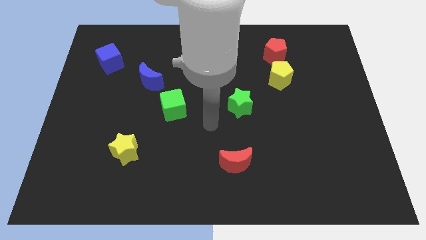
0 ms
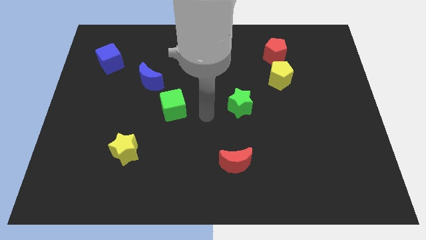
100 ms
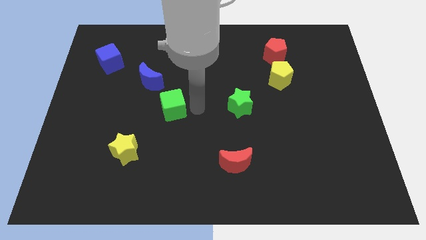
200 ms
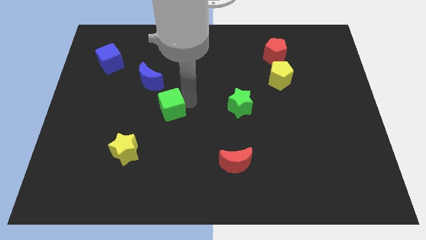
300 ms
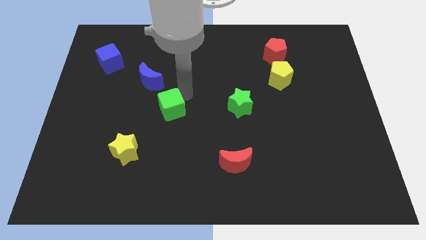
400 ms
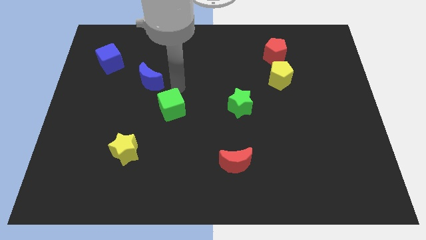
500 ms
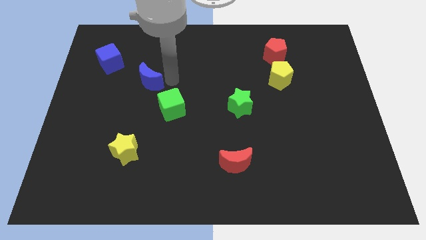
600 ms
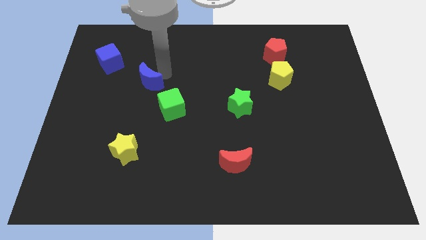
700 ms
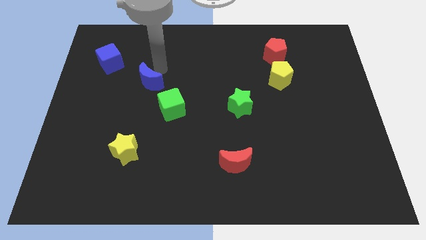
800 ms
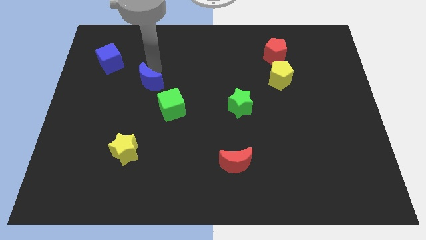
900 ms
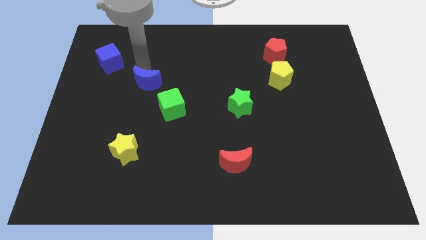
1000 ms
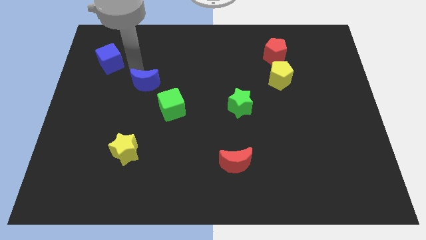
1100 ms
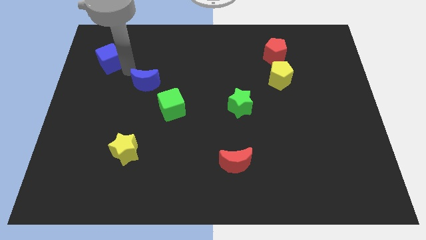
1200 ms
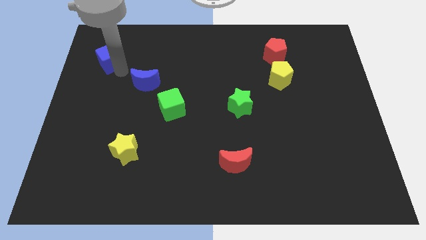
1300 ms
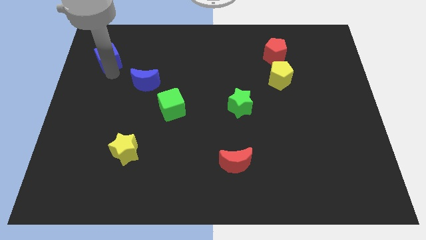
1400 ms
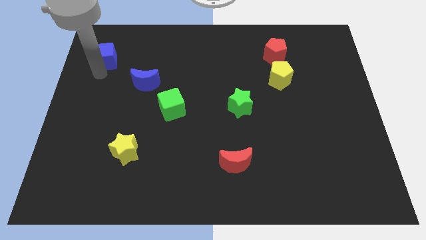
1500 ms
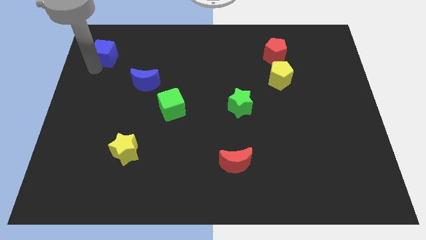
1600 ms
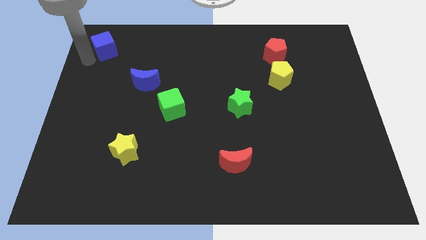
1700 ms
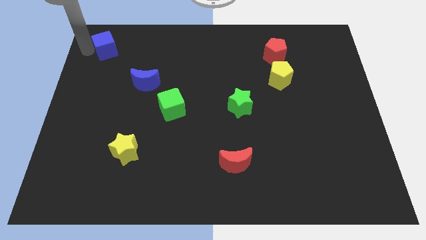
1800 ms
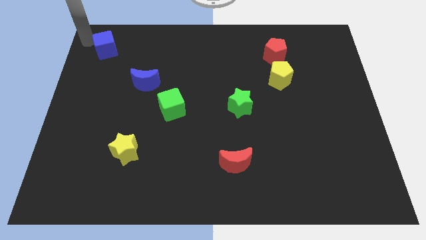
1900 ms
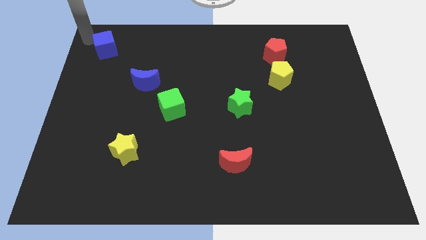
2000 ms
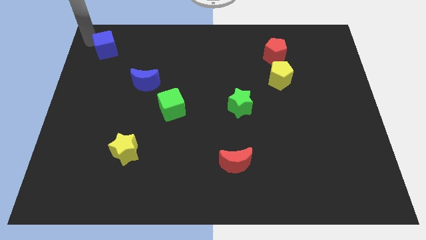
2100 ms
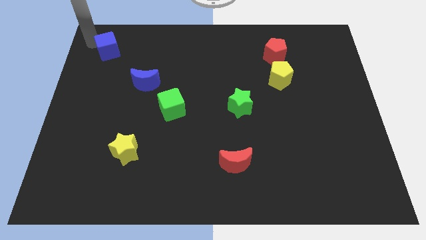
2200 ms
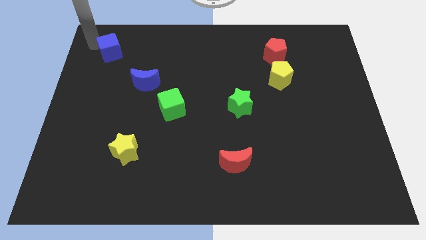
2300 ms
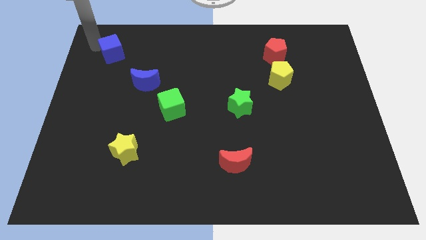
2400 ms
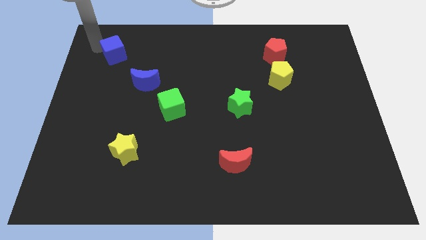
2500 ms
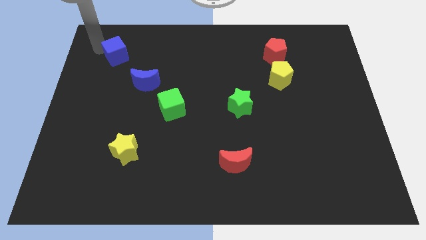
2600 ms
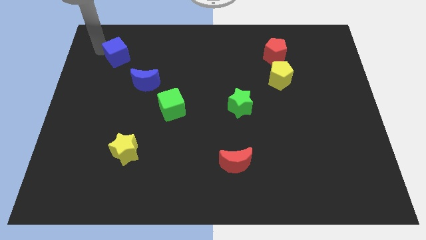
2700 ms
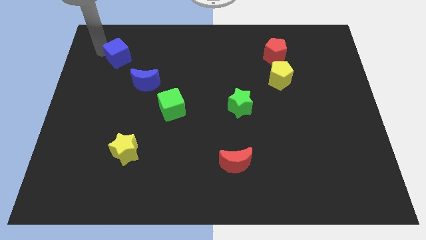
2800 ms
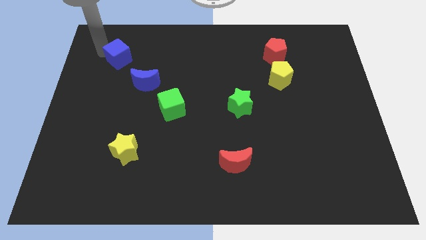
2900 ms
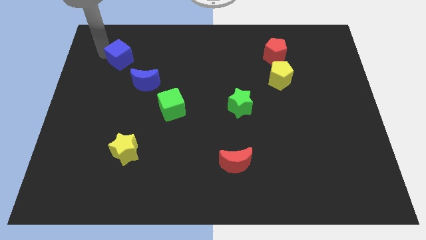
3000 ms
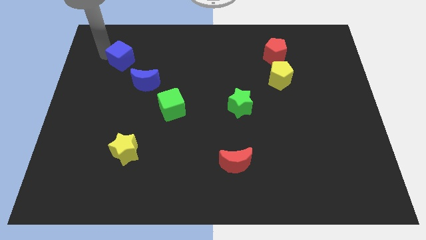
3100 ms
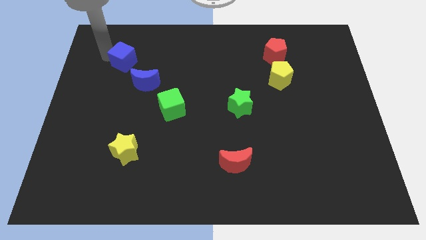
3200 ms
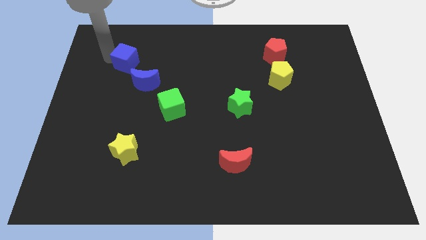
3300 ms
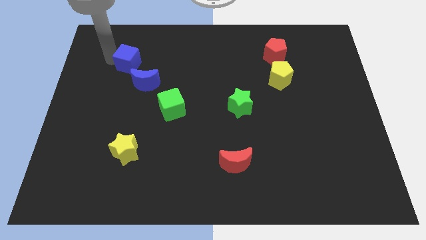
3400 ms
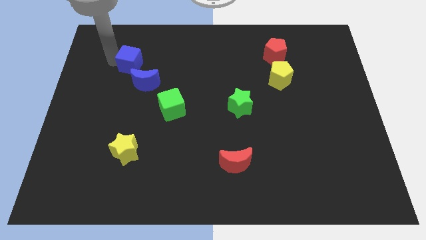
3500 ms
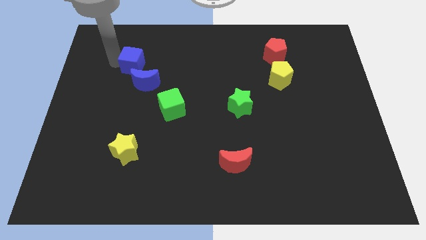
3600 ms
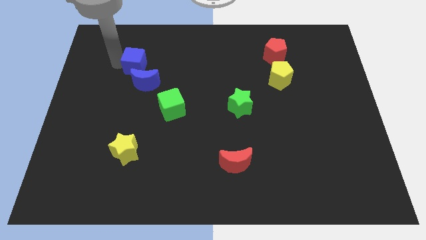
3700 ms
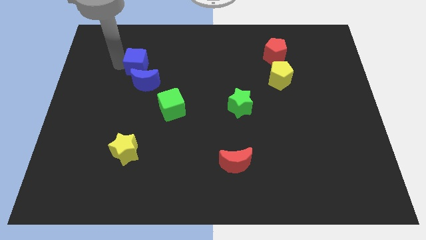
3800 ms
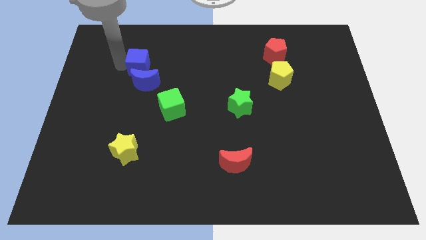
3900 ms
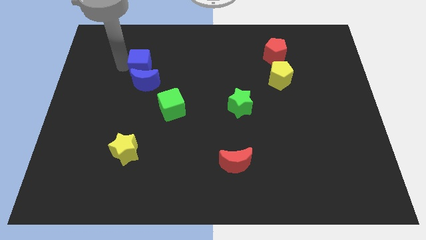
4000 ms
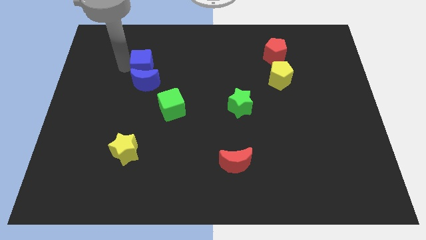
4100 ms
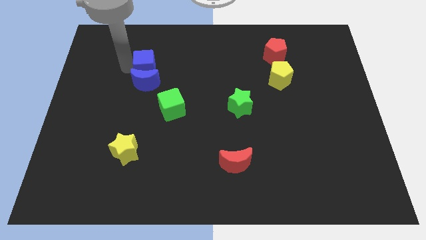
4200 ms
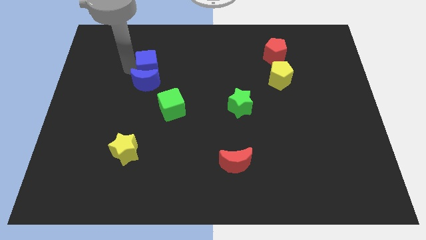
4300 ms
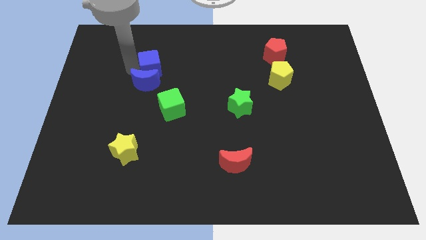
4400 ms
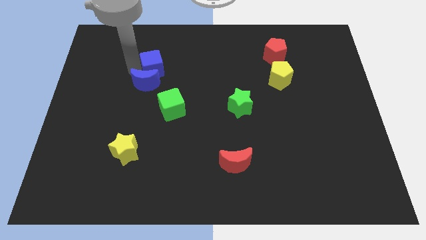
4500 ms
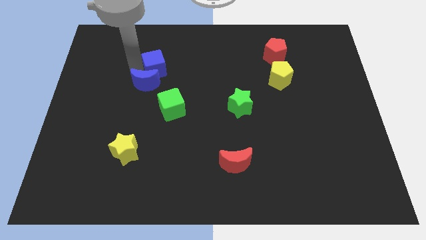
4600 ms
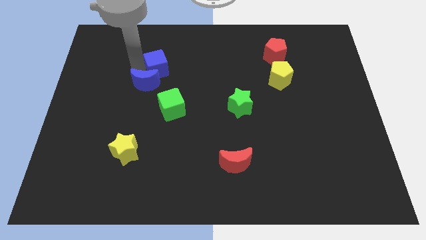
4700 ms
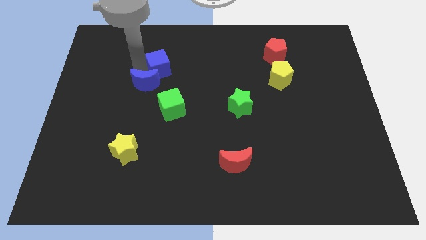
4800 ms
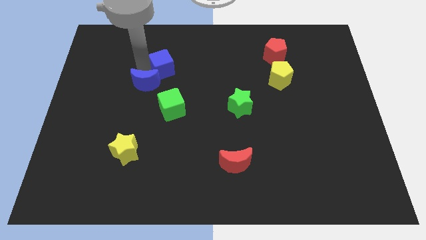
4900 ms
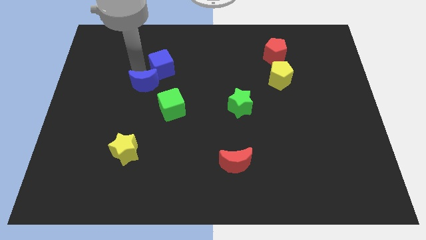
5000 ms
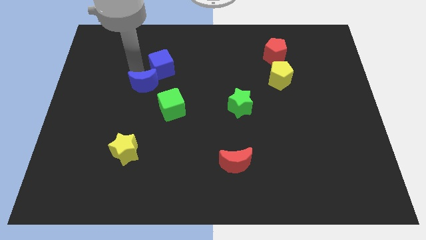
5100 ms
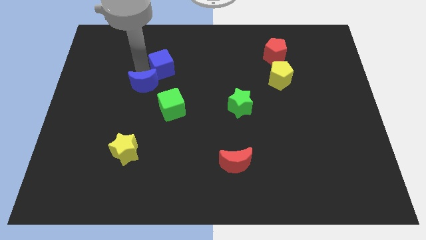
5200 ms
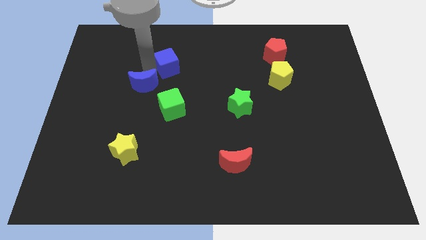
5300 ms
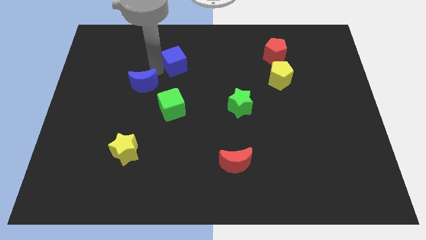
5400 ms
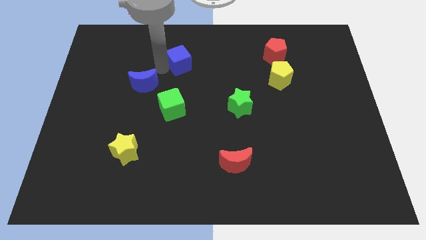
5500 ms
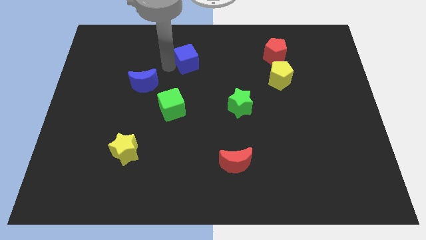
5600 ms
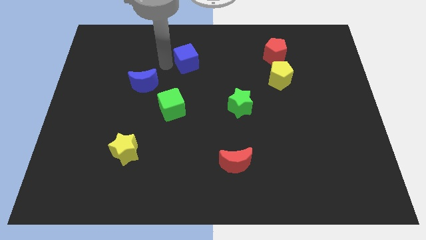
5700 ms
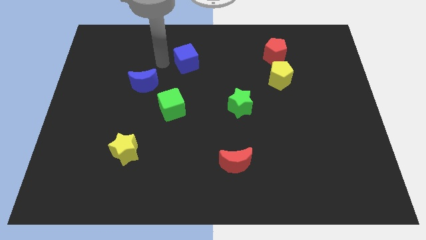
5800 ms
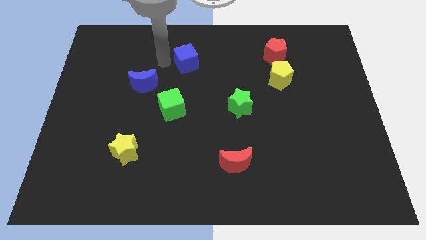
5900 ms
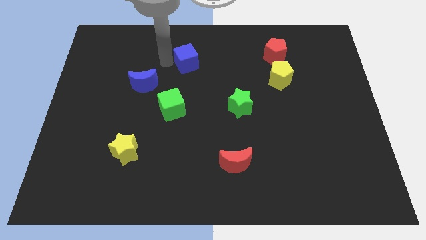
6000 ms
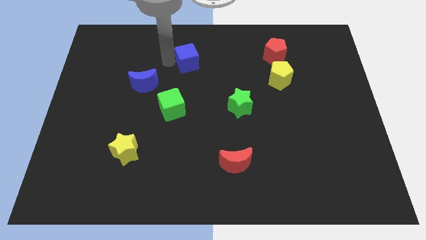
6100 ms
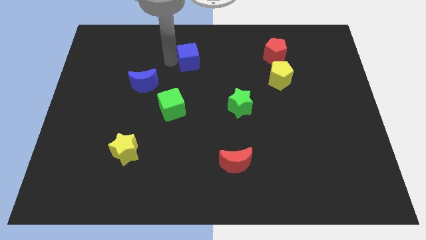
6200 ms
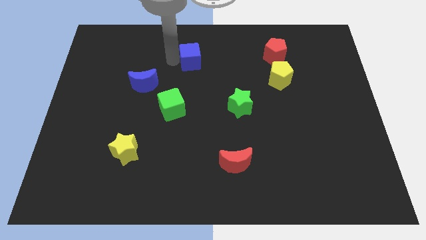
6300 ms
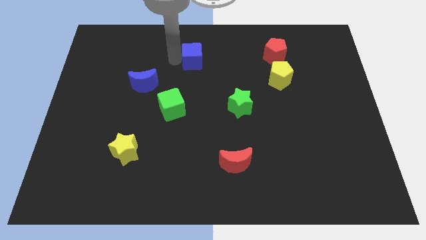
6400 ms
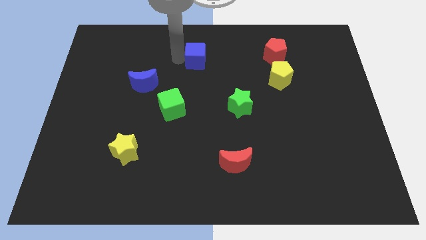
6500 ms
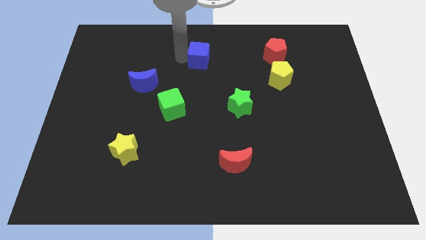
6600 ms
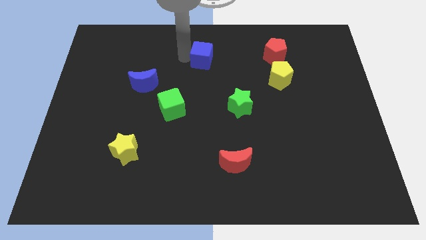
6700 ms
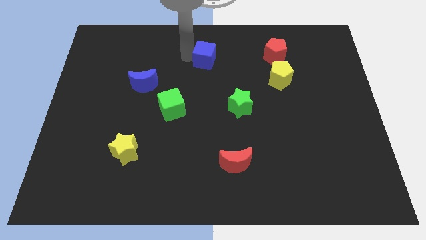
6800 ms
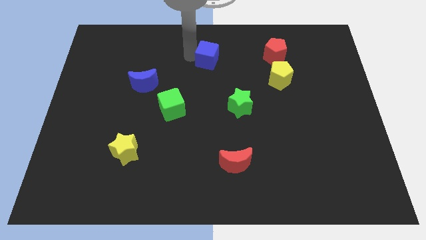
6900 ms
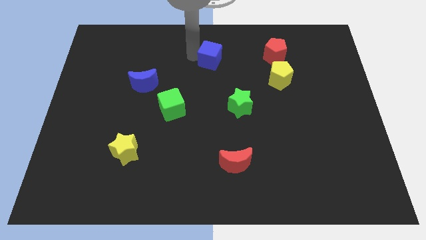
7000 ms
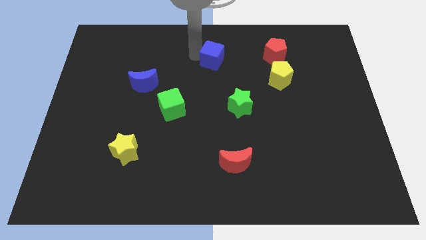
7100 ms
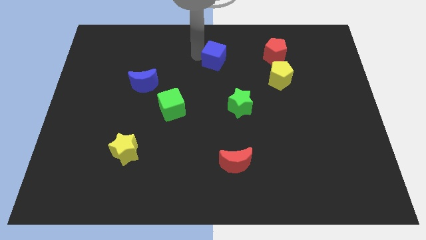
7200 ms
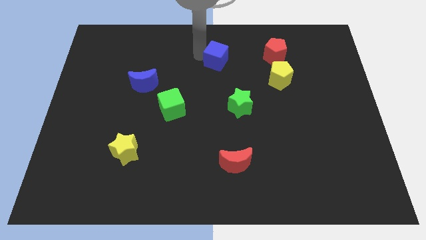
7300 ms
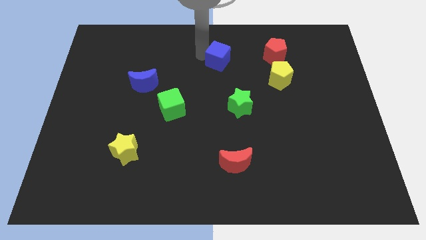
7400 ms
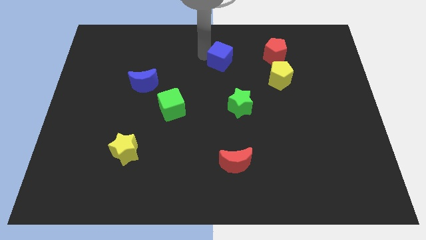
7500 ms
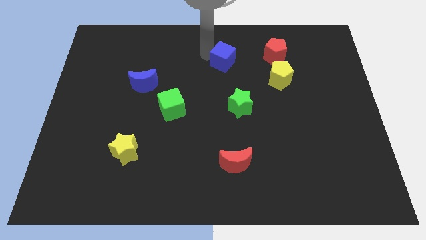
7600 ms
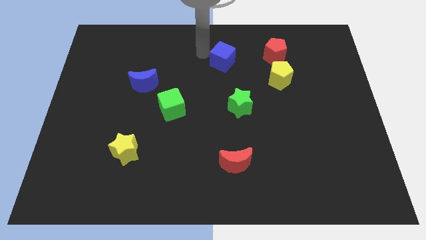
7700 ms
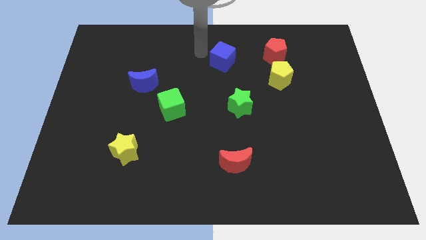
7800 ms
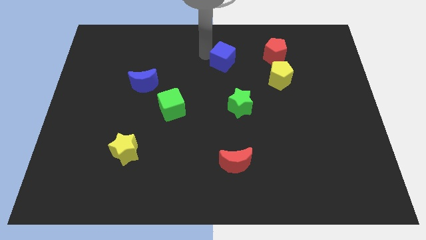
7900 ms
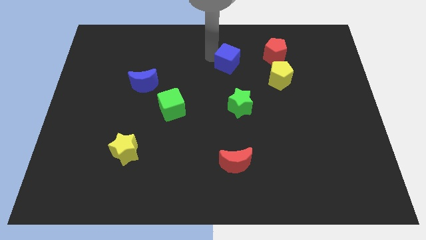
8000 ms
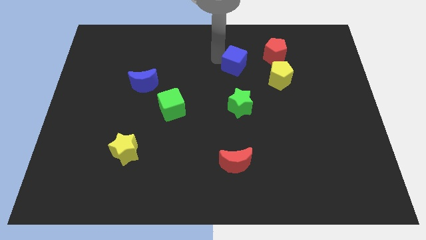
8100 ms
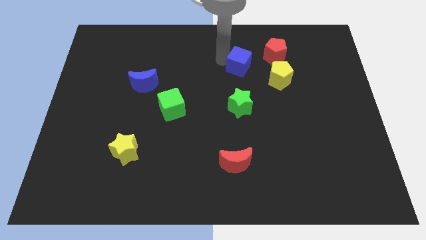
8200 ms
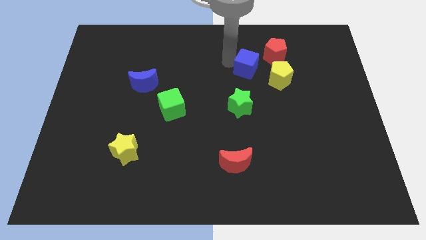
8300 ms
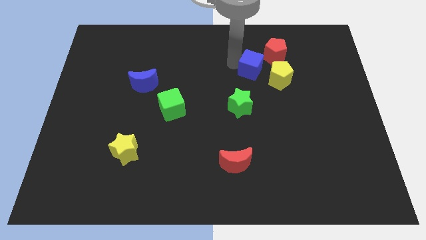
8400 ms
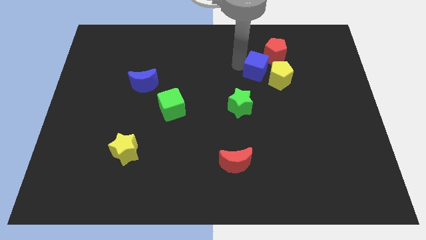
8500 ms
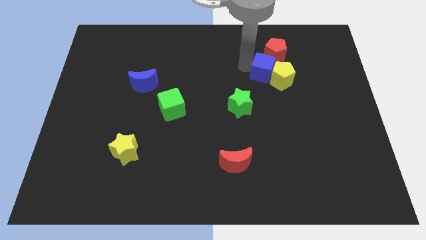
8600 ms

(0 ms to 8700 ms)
push the blue cube close to the yellow pentagon
